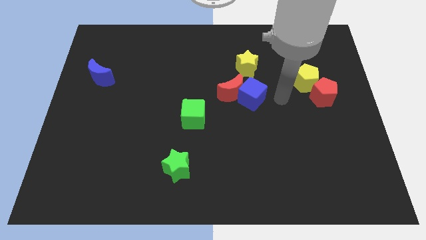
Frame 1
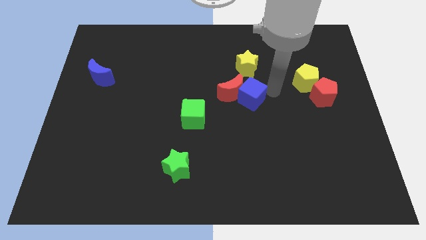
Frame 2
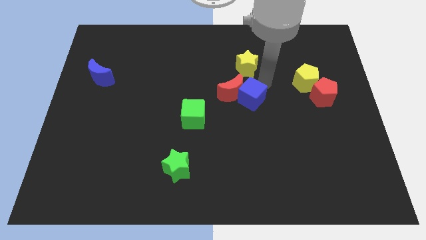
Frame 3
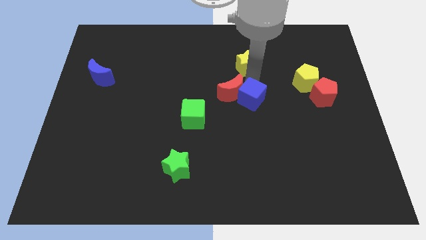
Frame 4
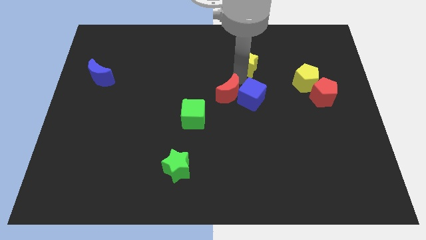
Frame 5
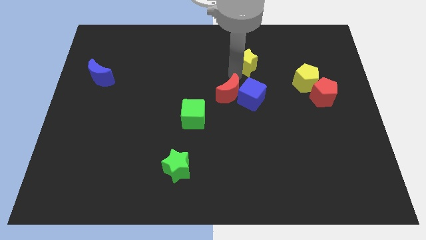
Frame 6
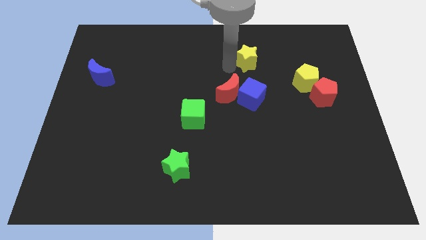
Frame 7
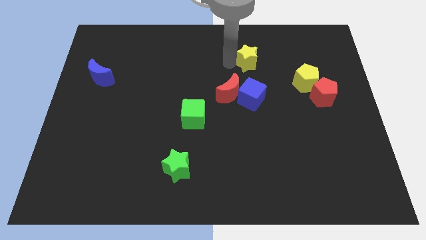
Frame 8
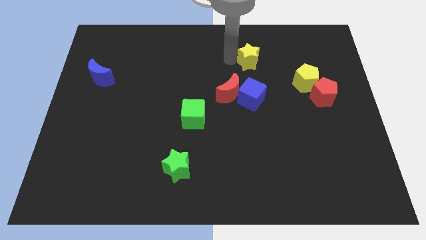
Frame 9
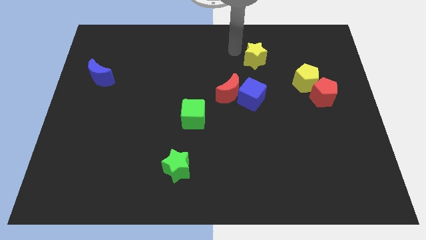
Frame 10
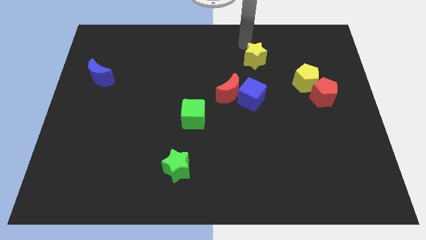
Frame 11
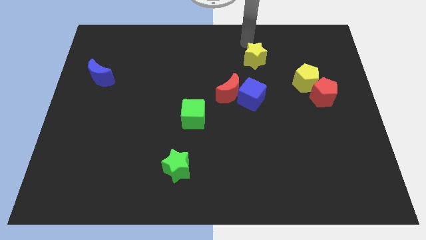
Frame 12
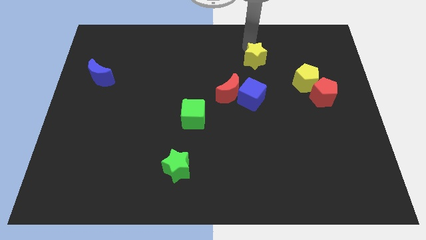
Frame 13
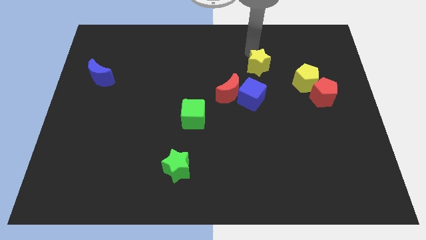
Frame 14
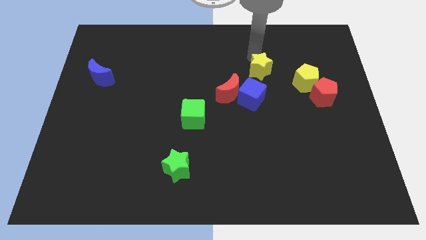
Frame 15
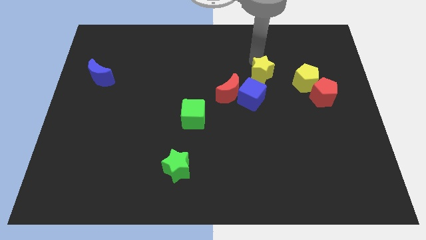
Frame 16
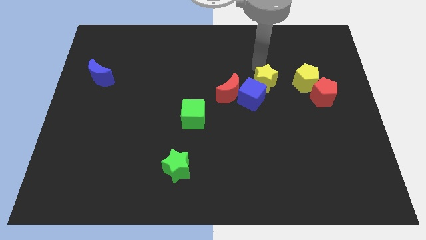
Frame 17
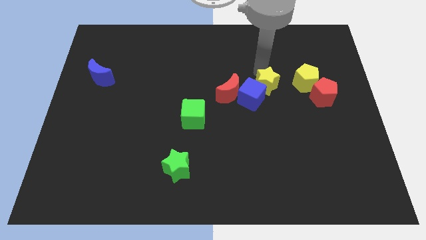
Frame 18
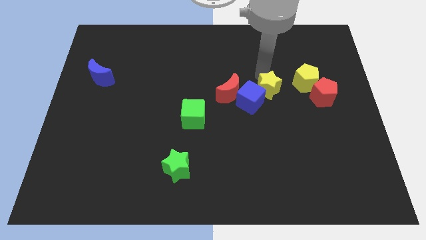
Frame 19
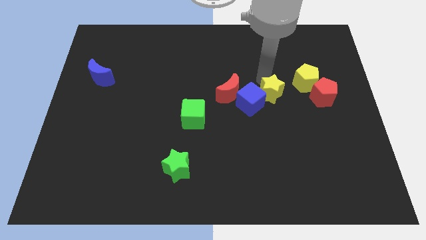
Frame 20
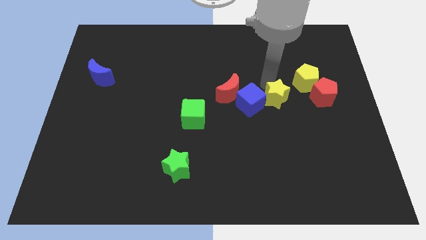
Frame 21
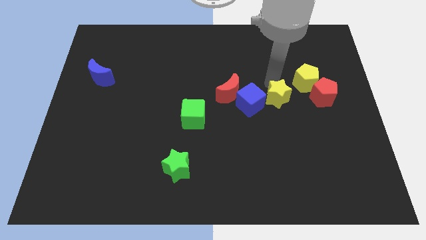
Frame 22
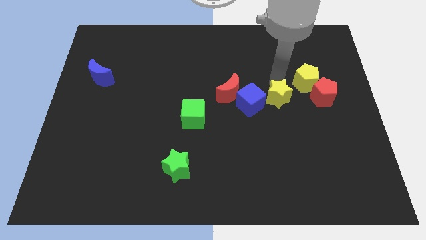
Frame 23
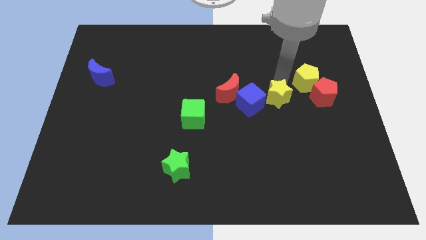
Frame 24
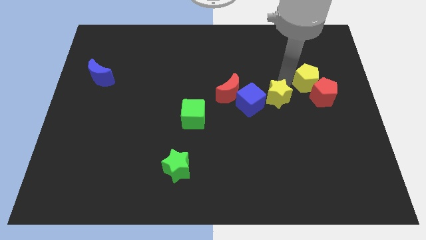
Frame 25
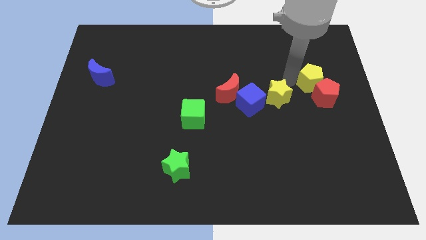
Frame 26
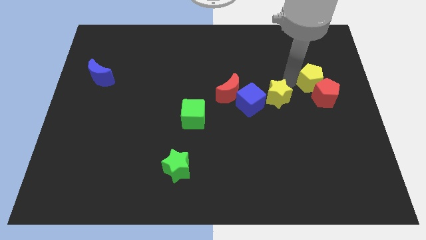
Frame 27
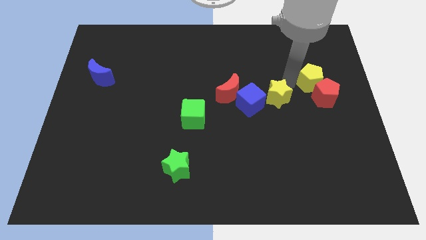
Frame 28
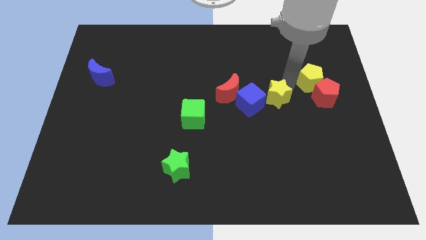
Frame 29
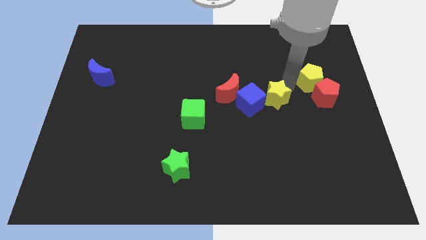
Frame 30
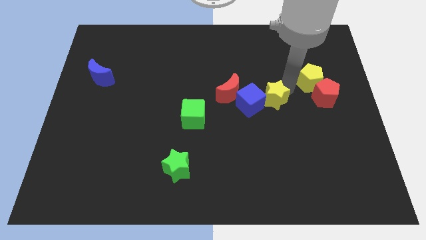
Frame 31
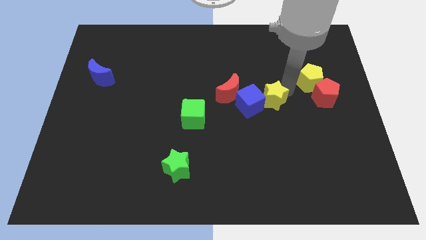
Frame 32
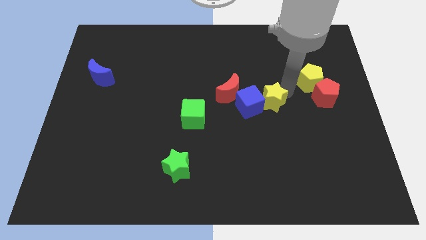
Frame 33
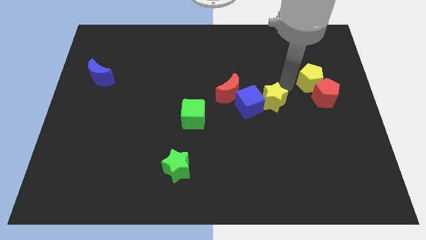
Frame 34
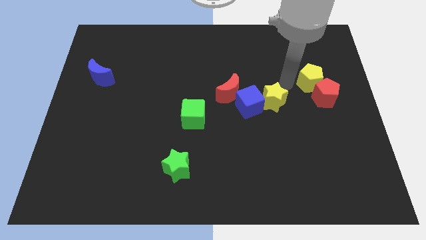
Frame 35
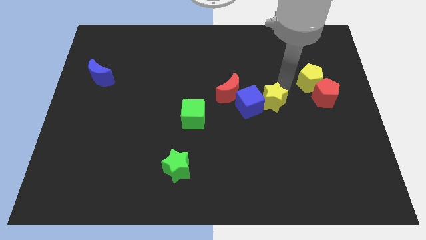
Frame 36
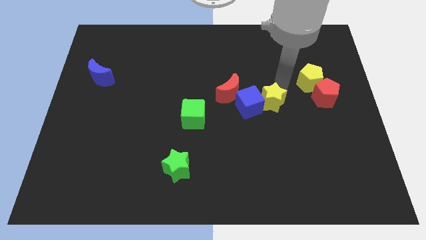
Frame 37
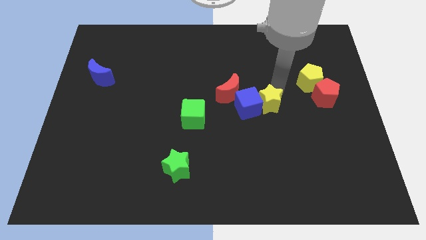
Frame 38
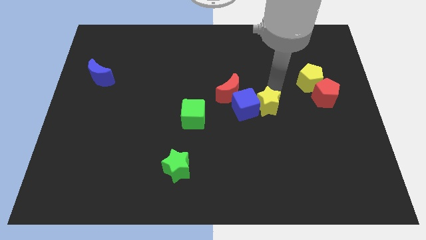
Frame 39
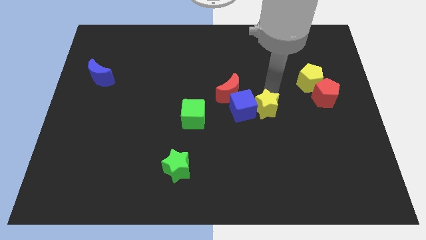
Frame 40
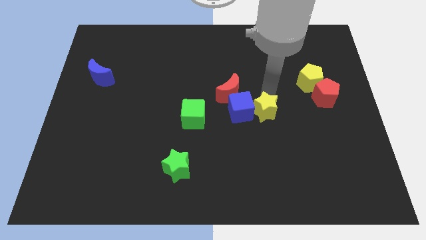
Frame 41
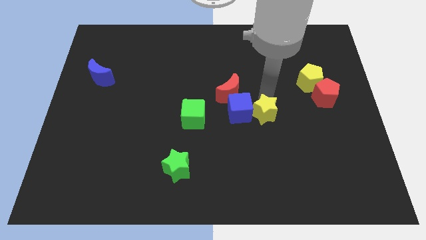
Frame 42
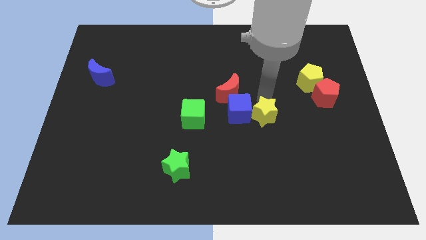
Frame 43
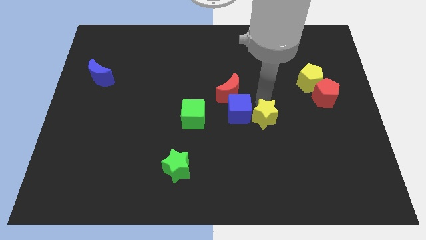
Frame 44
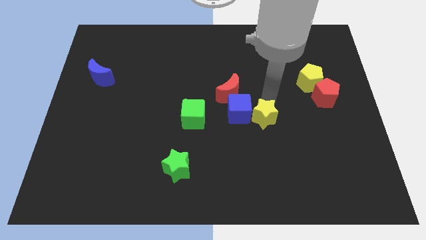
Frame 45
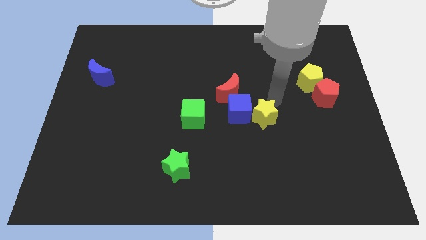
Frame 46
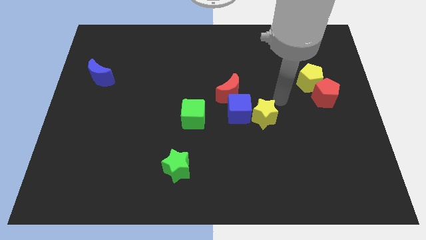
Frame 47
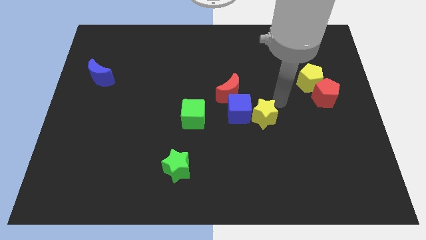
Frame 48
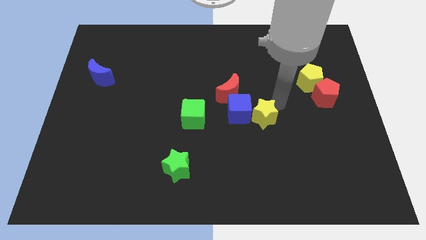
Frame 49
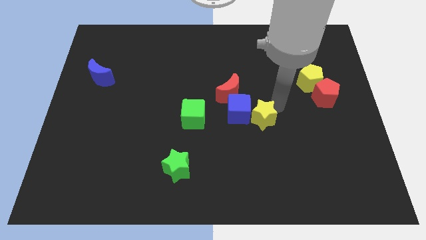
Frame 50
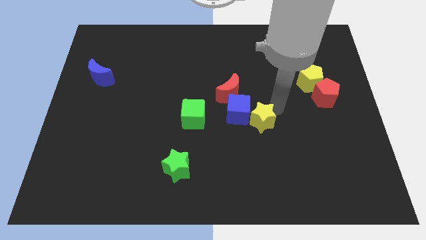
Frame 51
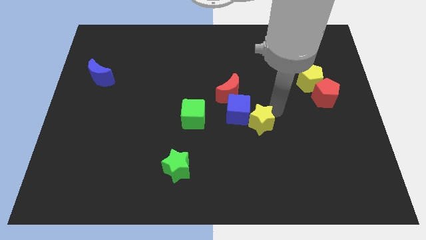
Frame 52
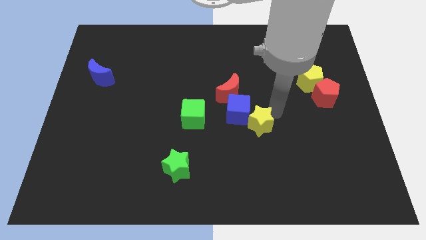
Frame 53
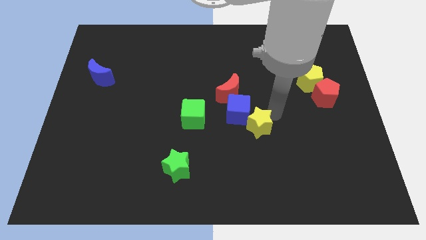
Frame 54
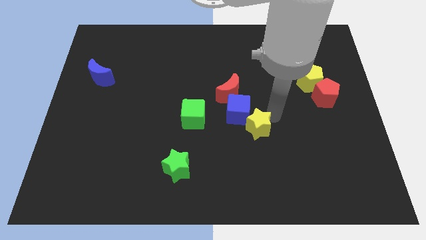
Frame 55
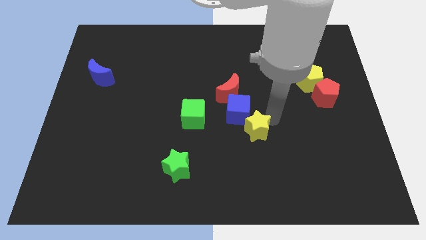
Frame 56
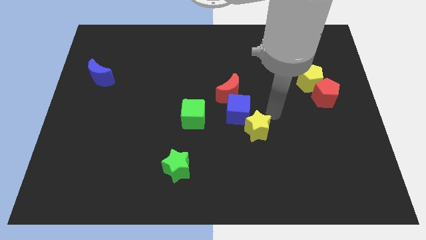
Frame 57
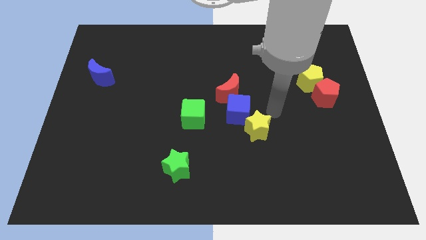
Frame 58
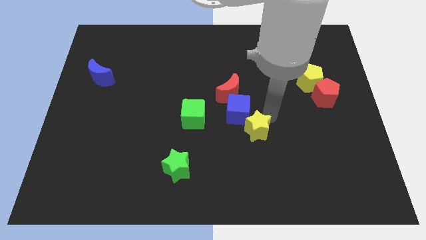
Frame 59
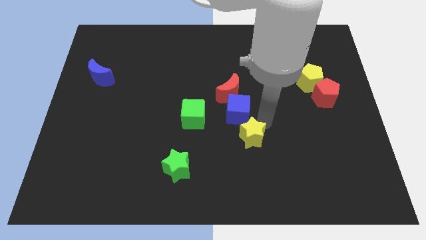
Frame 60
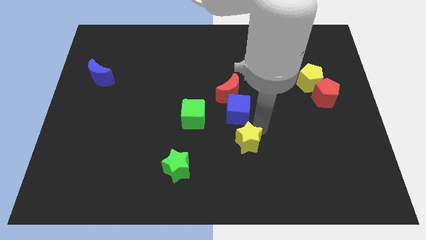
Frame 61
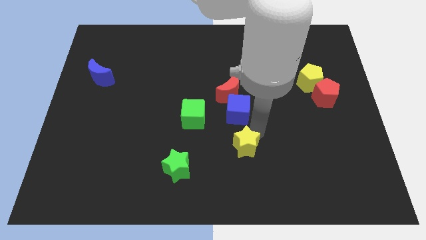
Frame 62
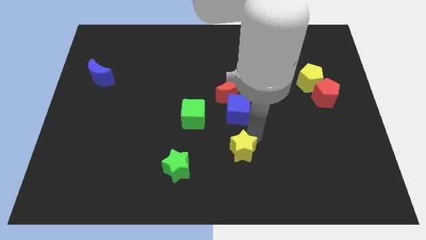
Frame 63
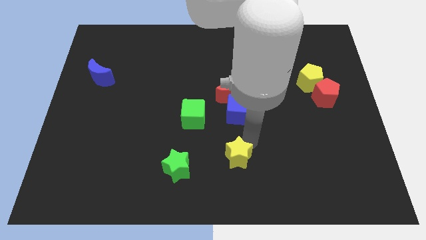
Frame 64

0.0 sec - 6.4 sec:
move the yellow star just right of the green star
